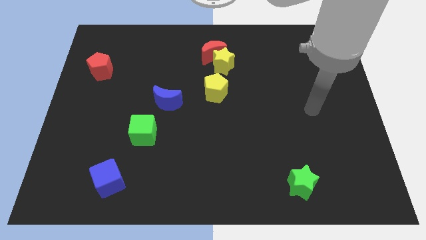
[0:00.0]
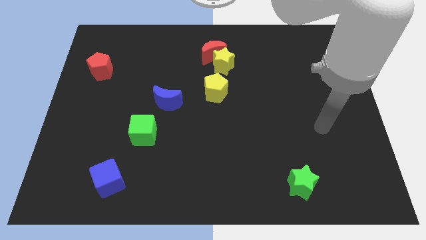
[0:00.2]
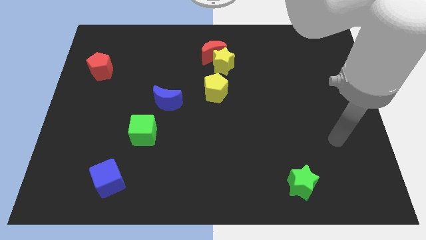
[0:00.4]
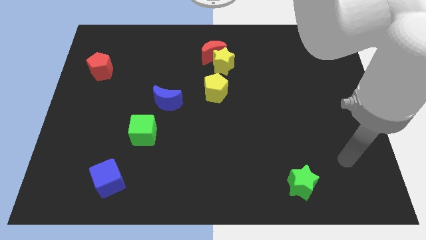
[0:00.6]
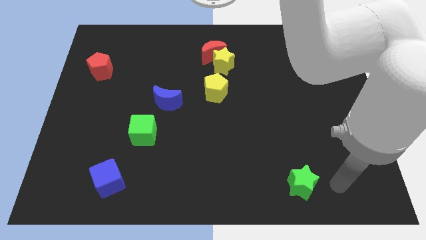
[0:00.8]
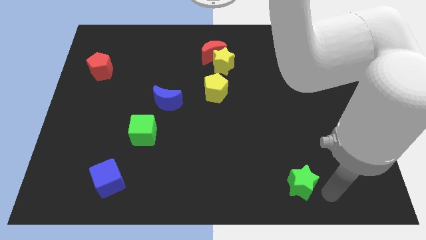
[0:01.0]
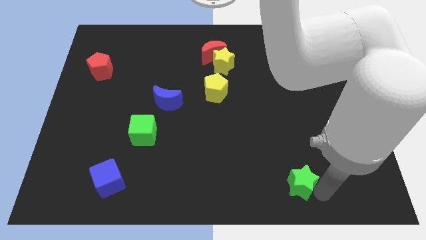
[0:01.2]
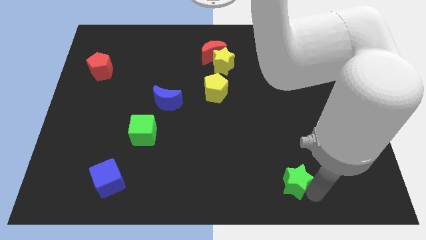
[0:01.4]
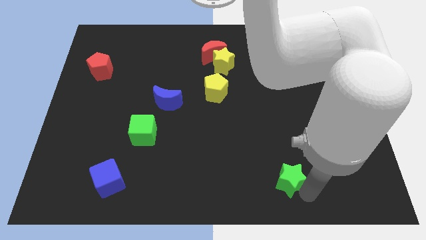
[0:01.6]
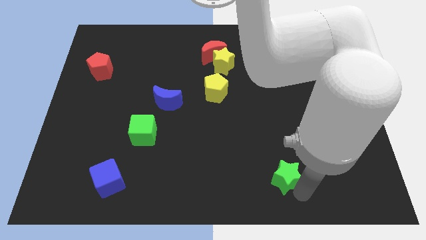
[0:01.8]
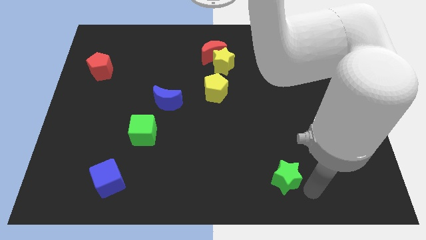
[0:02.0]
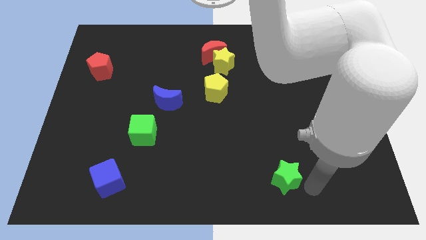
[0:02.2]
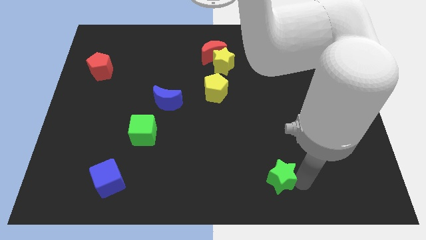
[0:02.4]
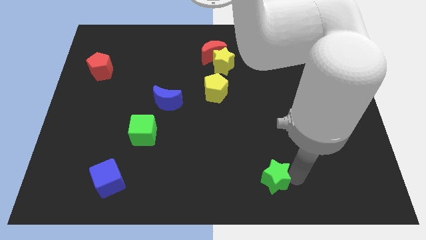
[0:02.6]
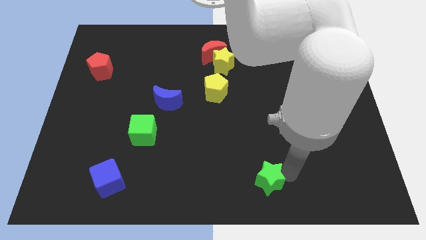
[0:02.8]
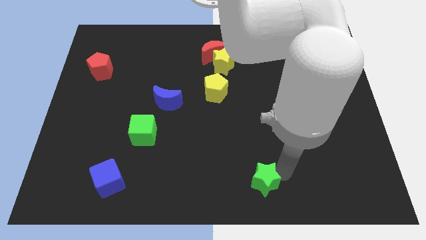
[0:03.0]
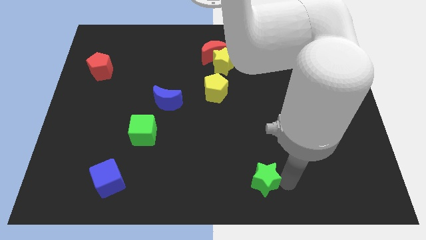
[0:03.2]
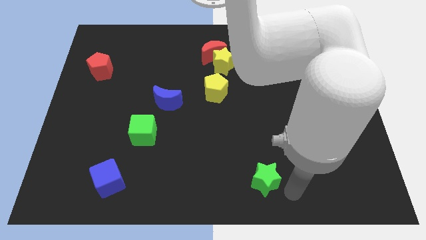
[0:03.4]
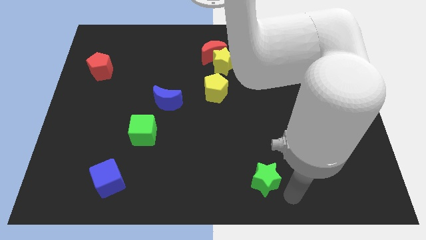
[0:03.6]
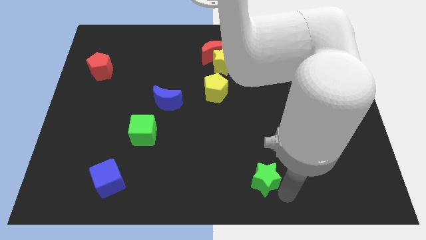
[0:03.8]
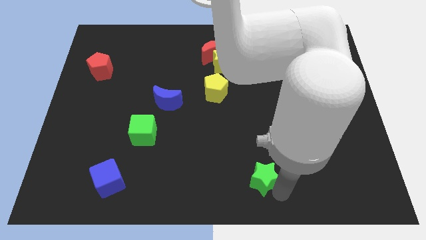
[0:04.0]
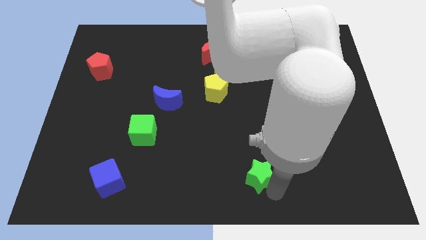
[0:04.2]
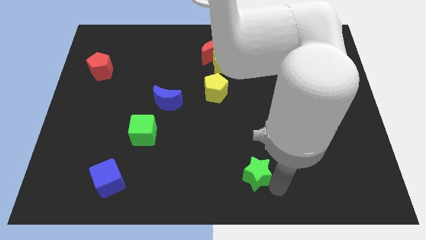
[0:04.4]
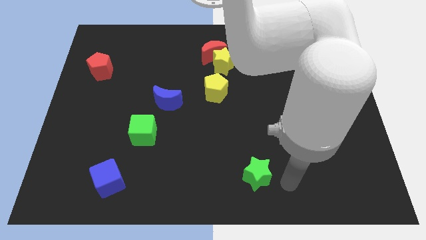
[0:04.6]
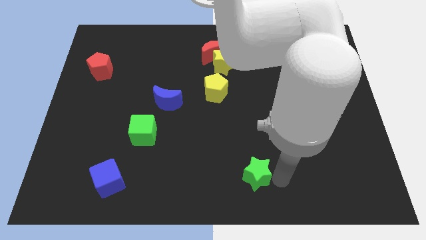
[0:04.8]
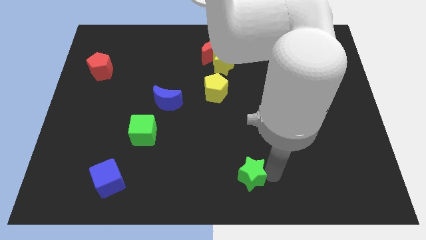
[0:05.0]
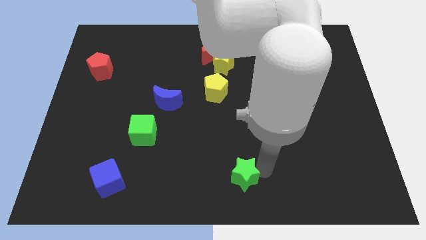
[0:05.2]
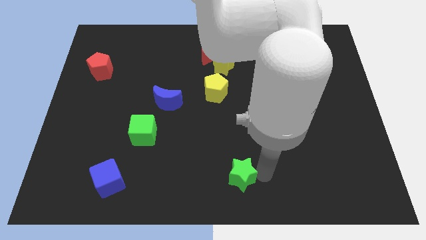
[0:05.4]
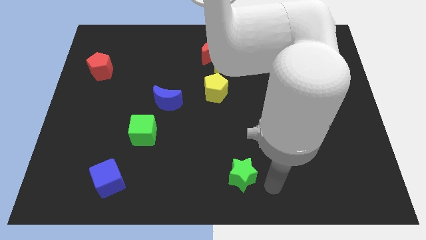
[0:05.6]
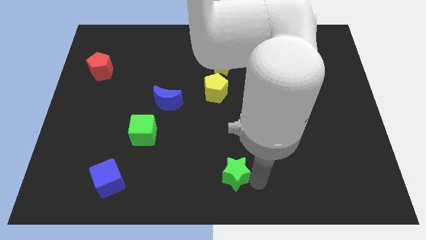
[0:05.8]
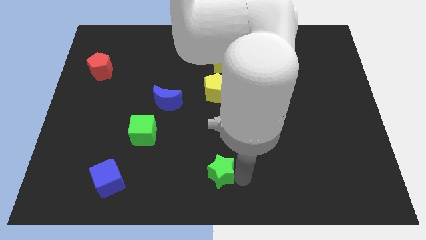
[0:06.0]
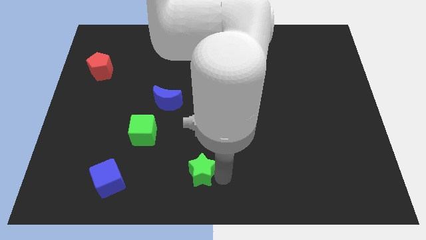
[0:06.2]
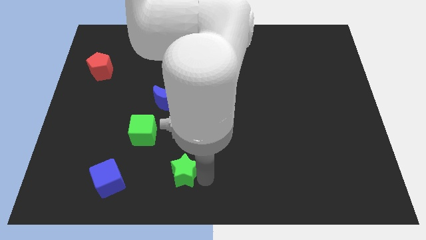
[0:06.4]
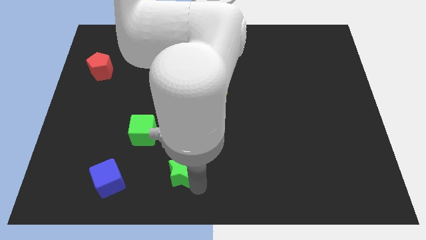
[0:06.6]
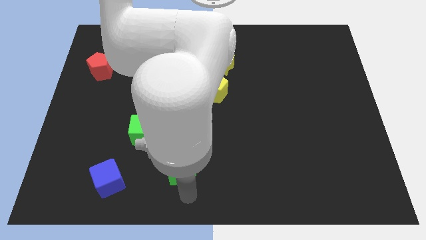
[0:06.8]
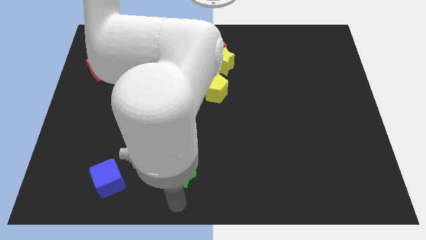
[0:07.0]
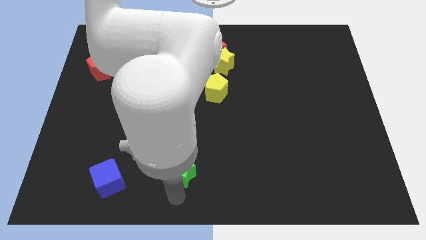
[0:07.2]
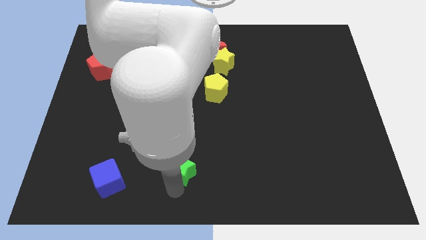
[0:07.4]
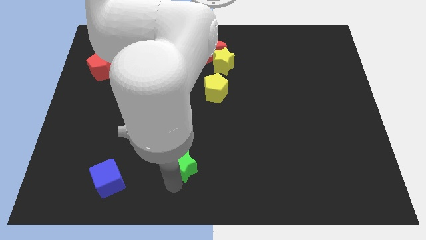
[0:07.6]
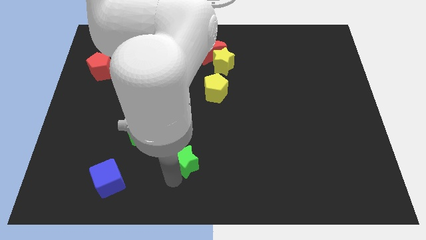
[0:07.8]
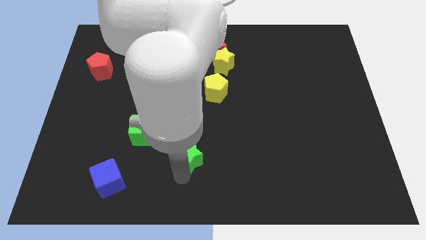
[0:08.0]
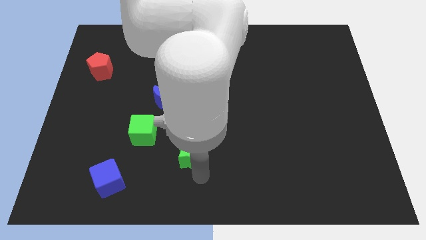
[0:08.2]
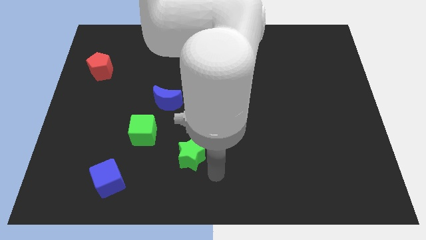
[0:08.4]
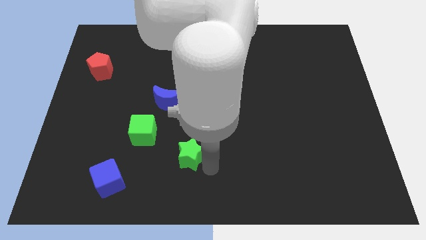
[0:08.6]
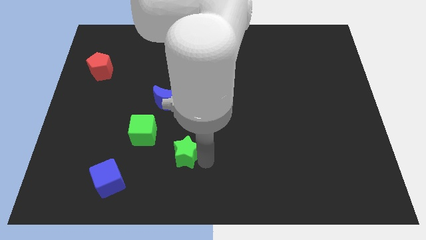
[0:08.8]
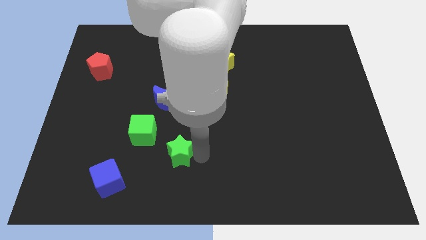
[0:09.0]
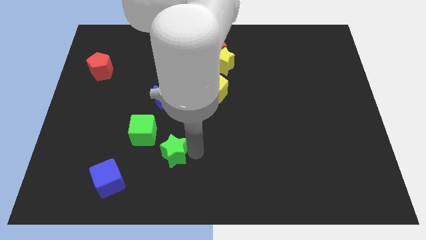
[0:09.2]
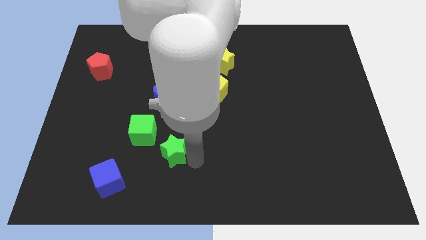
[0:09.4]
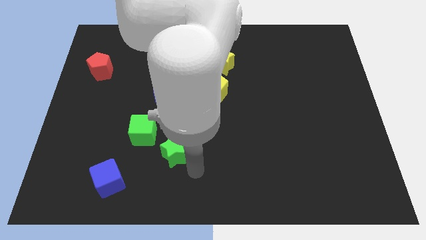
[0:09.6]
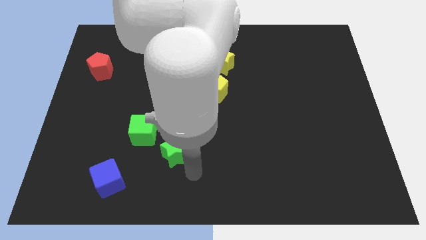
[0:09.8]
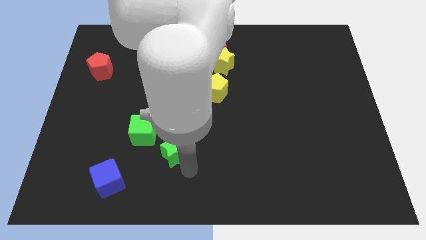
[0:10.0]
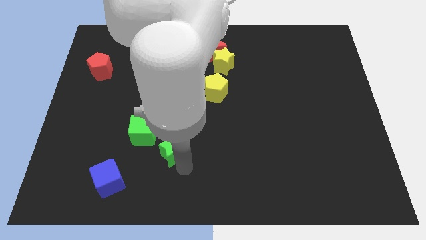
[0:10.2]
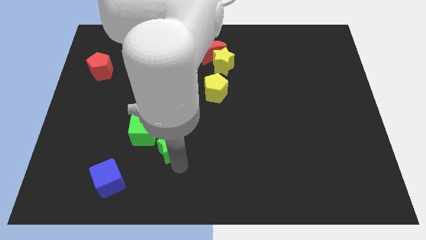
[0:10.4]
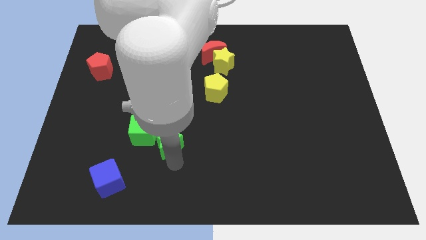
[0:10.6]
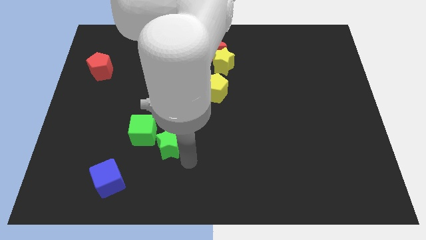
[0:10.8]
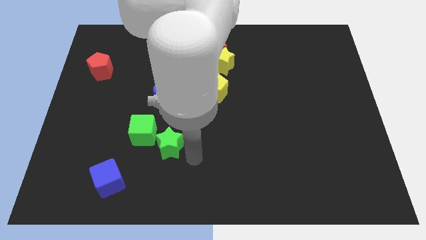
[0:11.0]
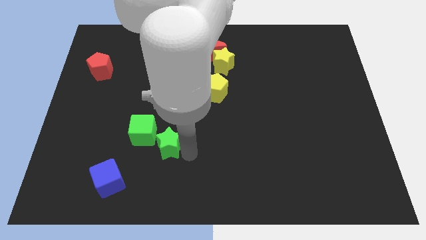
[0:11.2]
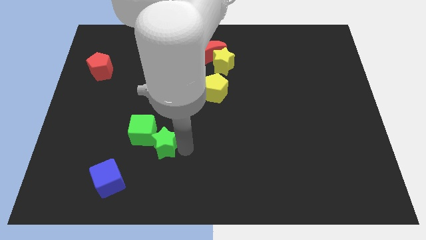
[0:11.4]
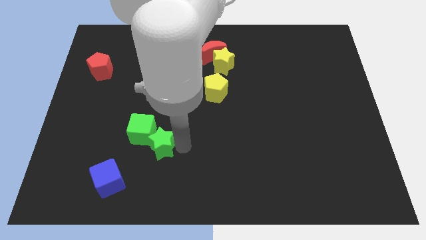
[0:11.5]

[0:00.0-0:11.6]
push the green star to the green cube

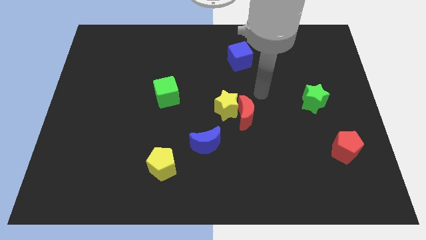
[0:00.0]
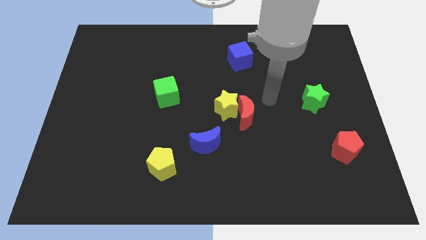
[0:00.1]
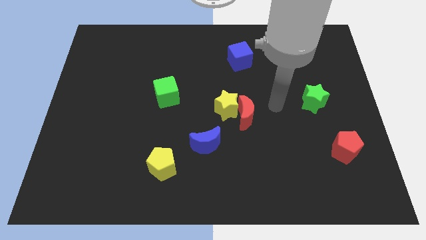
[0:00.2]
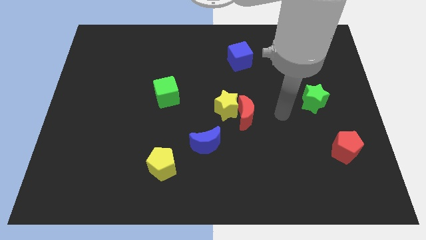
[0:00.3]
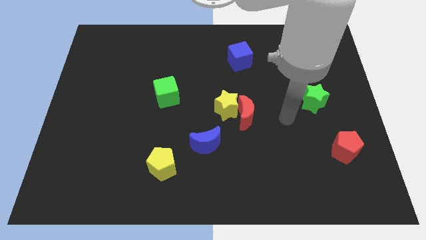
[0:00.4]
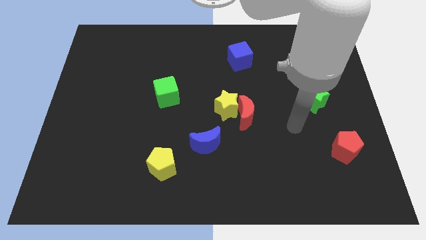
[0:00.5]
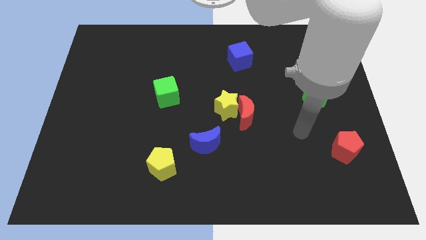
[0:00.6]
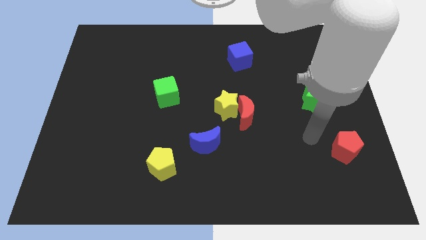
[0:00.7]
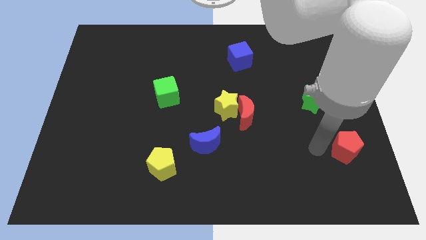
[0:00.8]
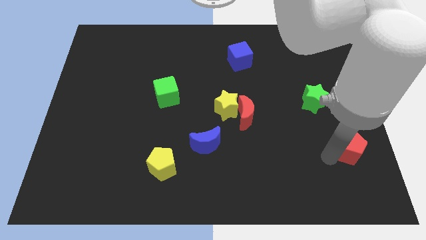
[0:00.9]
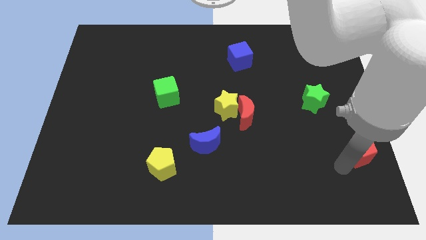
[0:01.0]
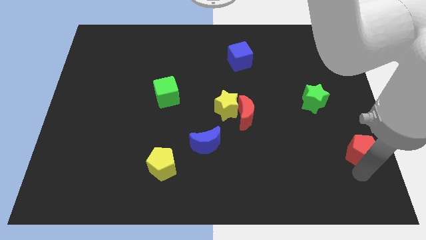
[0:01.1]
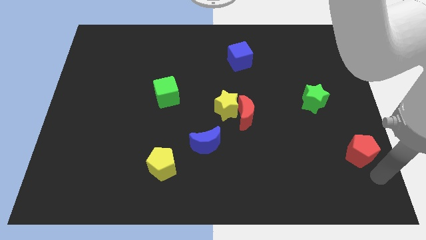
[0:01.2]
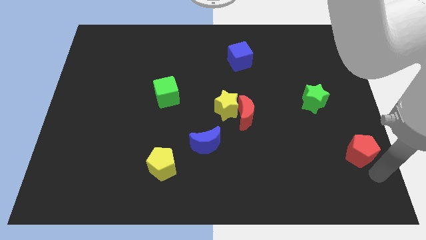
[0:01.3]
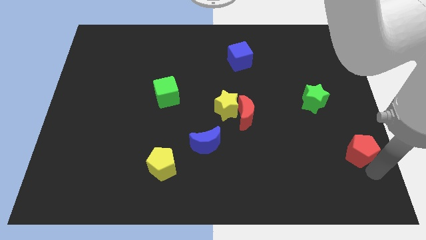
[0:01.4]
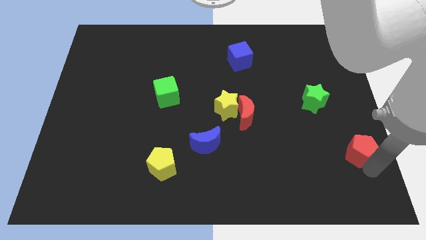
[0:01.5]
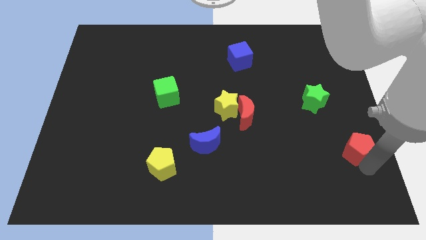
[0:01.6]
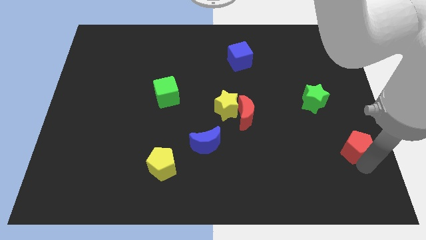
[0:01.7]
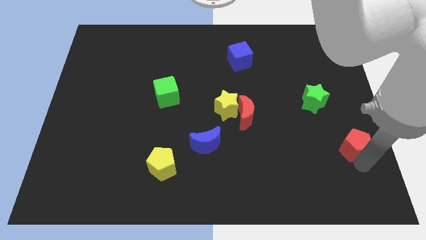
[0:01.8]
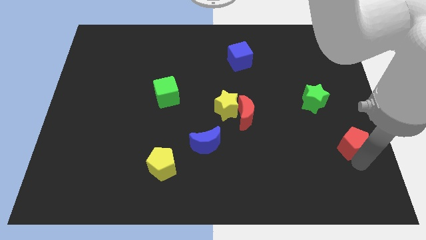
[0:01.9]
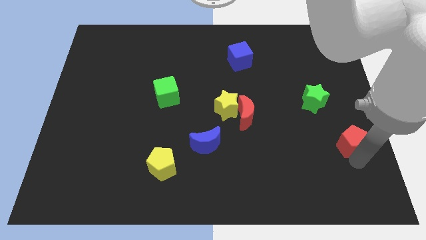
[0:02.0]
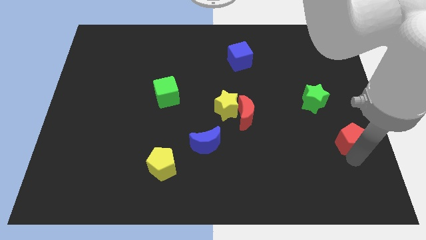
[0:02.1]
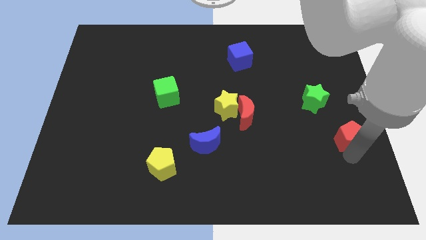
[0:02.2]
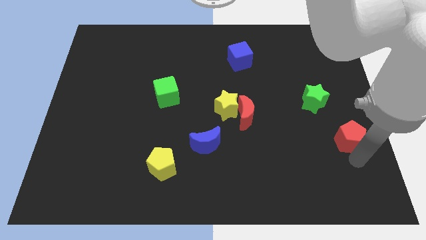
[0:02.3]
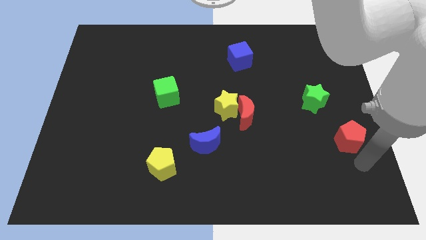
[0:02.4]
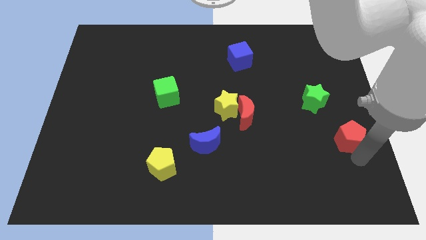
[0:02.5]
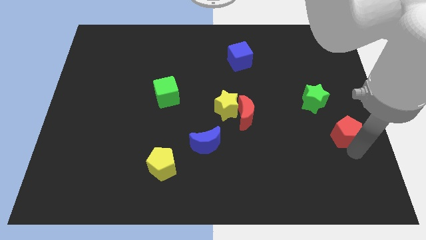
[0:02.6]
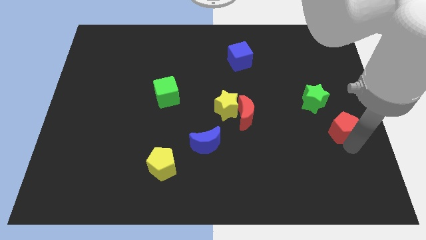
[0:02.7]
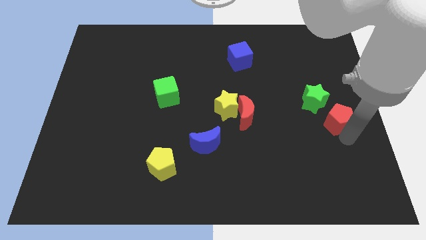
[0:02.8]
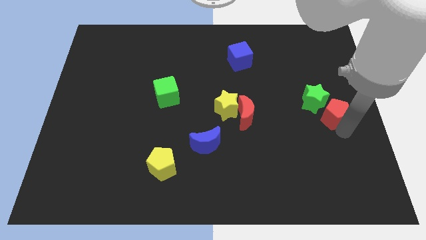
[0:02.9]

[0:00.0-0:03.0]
push the red pentagon towards the green star
